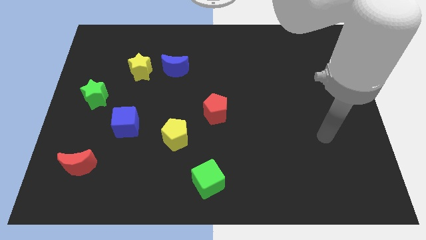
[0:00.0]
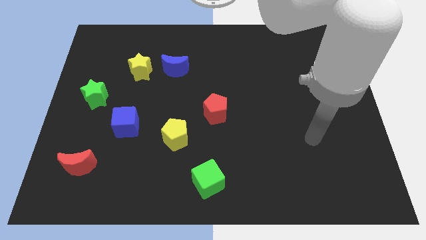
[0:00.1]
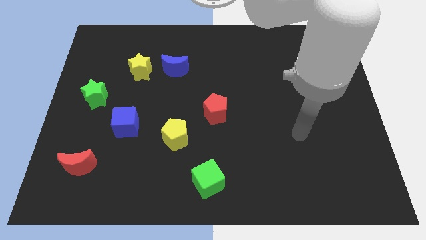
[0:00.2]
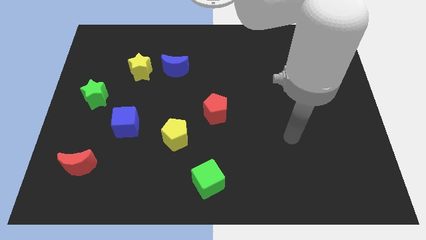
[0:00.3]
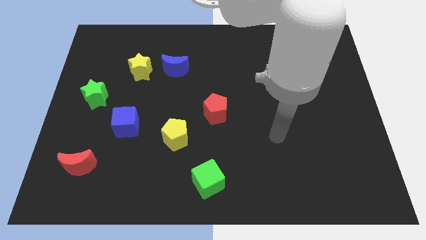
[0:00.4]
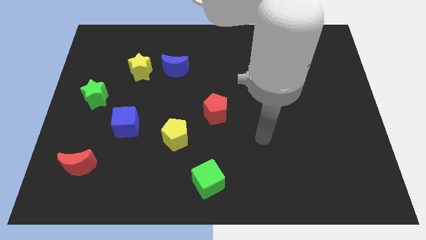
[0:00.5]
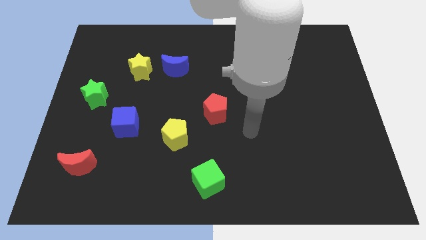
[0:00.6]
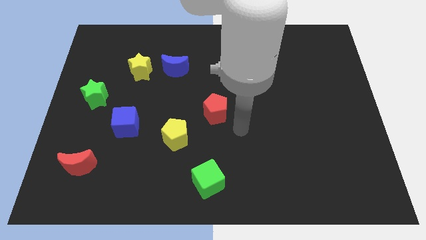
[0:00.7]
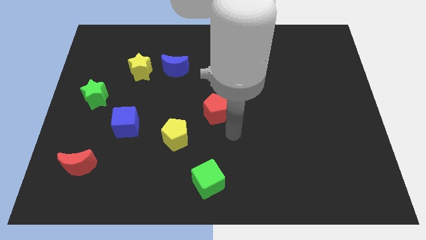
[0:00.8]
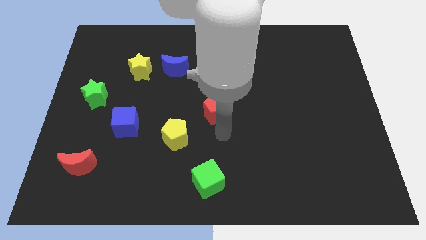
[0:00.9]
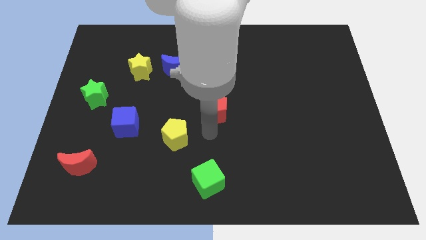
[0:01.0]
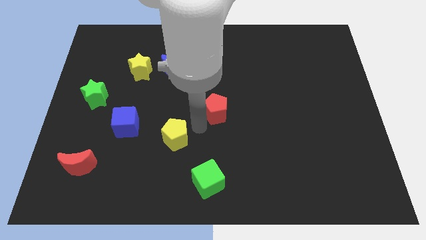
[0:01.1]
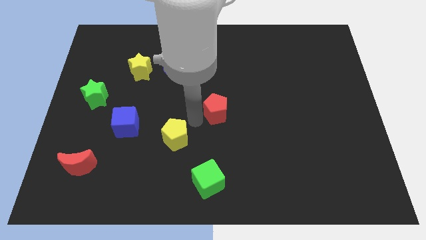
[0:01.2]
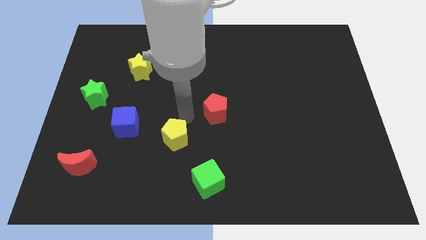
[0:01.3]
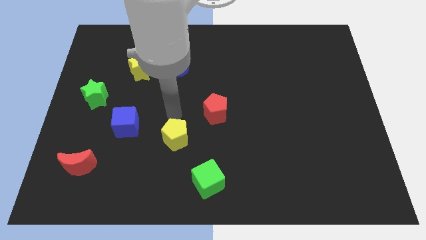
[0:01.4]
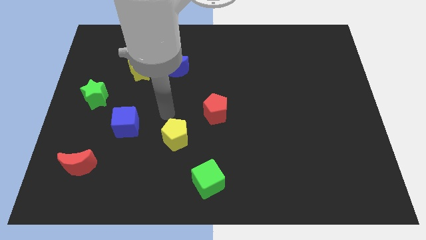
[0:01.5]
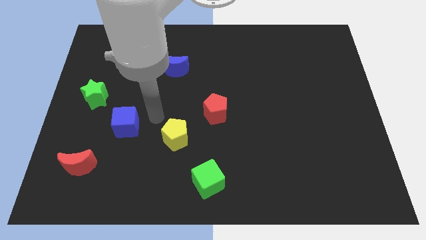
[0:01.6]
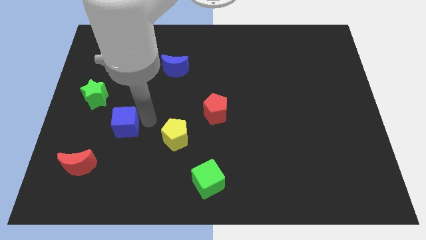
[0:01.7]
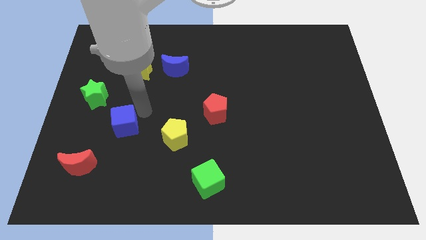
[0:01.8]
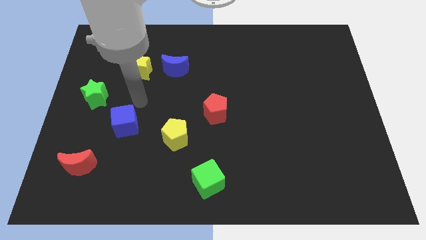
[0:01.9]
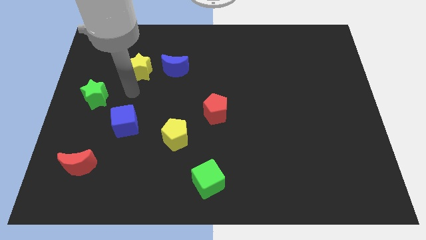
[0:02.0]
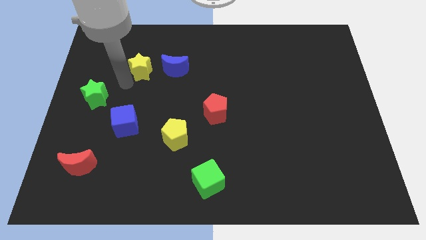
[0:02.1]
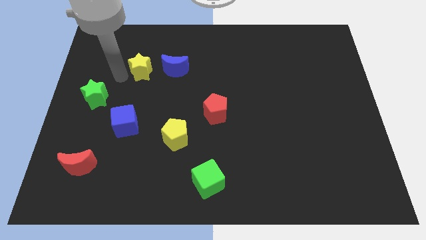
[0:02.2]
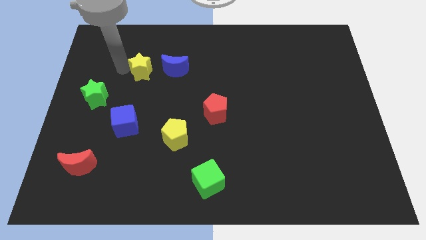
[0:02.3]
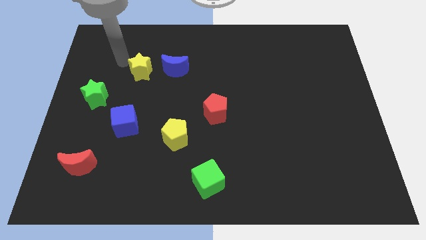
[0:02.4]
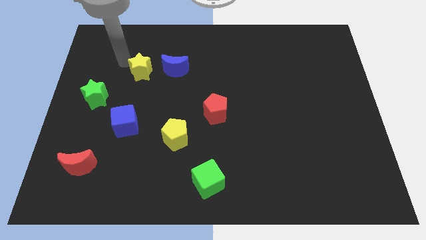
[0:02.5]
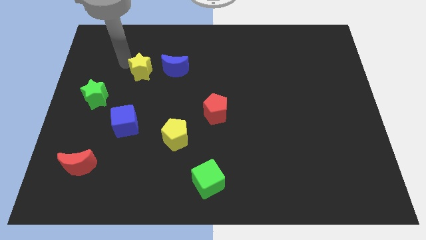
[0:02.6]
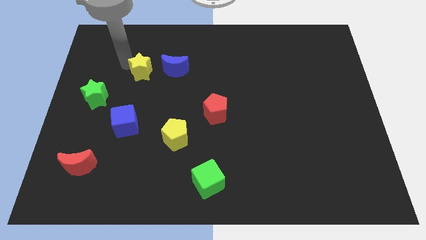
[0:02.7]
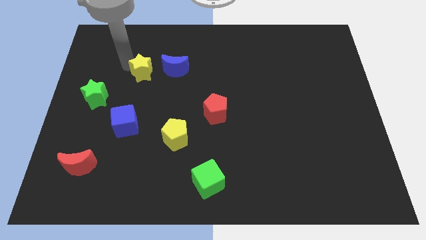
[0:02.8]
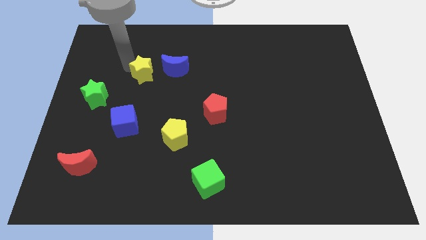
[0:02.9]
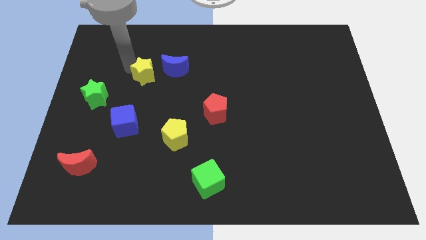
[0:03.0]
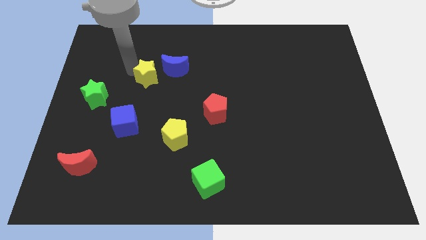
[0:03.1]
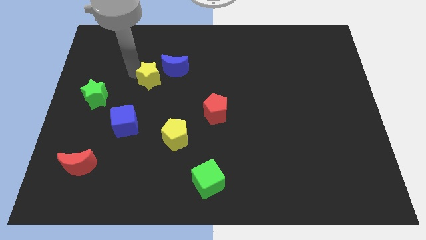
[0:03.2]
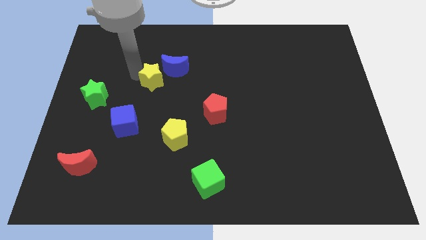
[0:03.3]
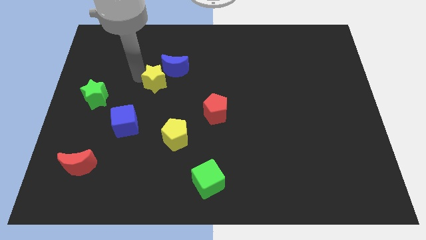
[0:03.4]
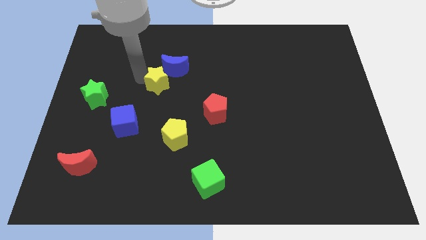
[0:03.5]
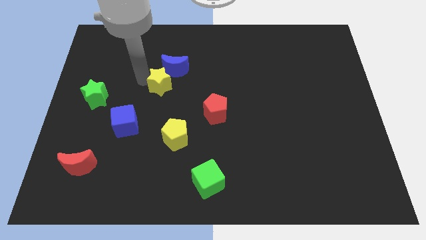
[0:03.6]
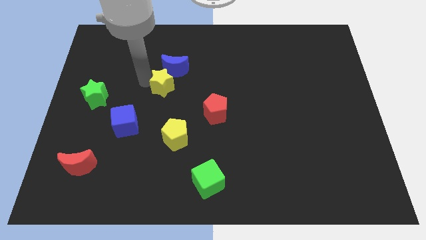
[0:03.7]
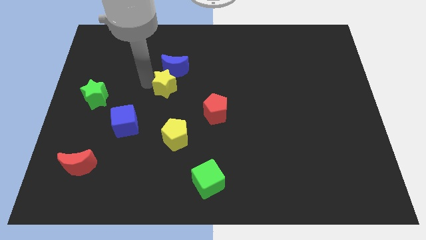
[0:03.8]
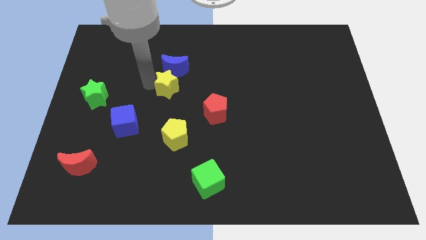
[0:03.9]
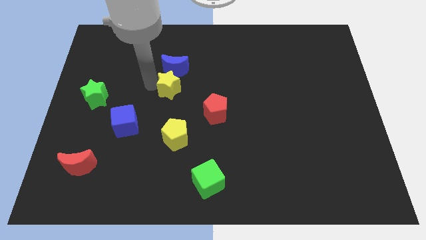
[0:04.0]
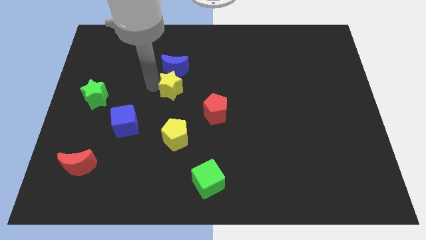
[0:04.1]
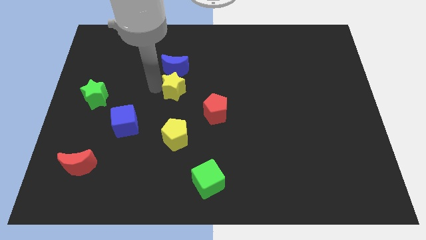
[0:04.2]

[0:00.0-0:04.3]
slide the yellow star a little to the right

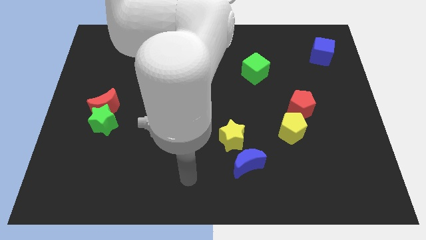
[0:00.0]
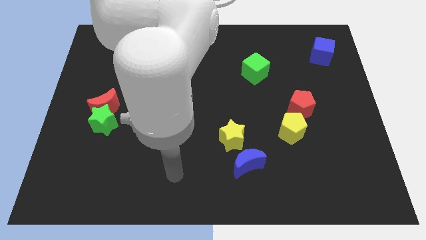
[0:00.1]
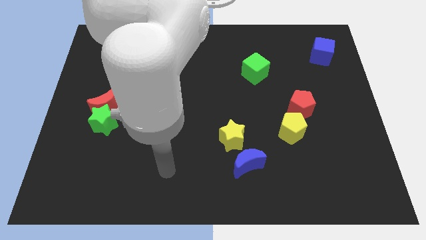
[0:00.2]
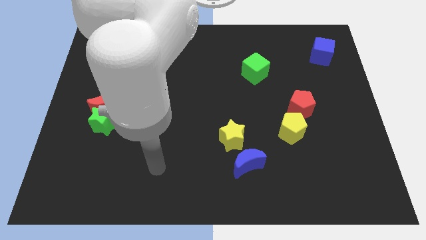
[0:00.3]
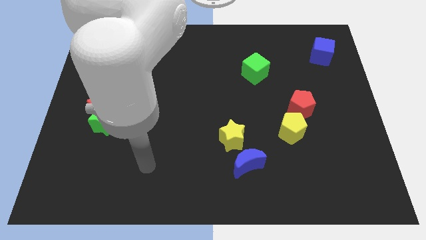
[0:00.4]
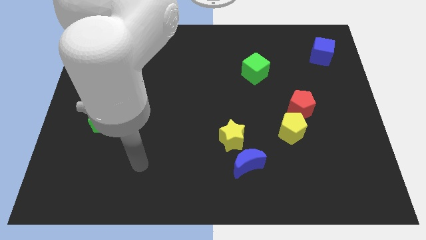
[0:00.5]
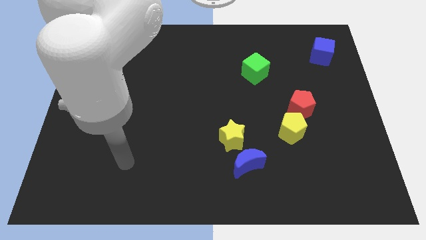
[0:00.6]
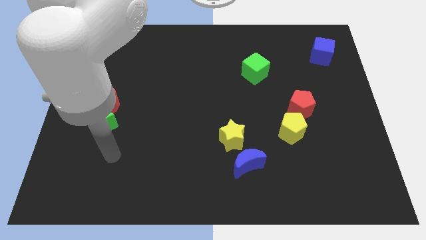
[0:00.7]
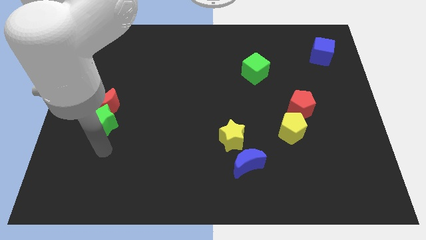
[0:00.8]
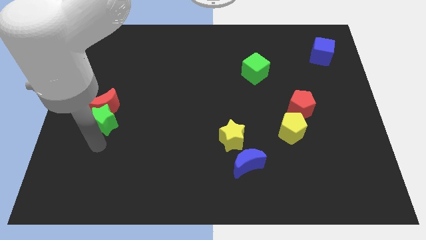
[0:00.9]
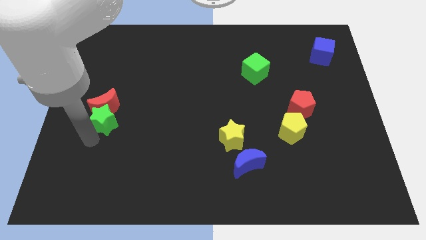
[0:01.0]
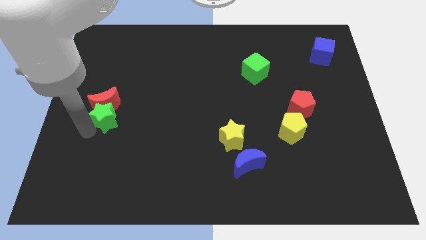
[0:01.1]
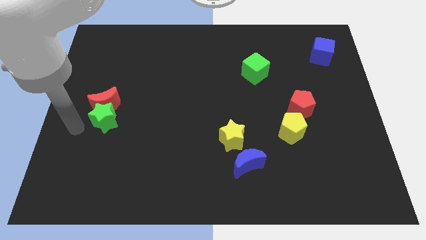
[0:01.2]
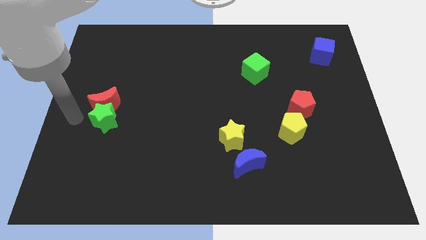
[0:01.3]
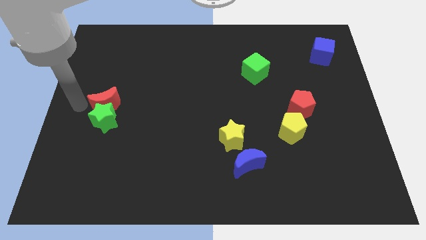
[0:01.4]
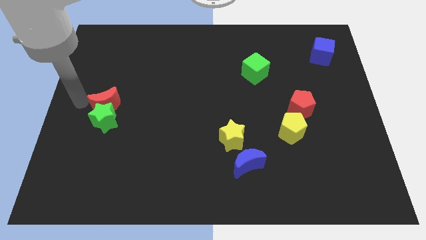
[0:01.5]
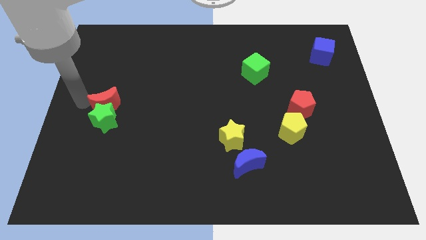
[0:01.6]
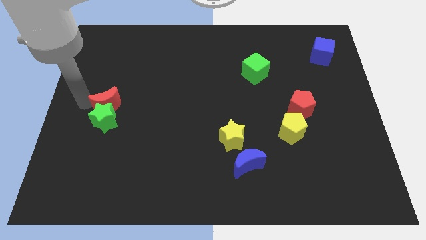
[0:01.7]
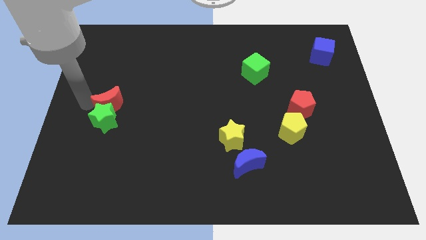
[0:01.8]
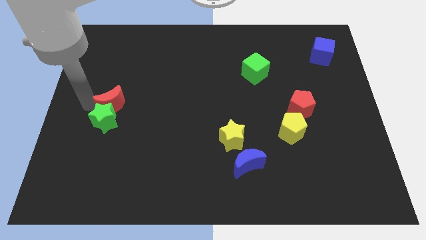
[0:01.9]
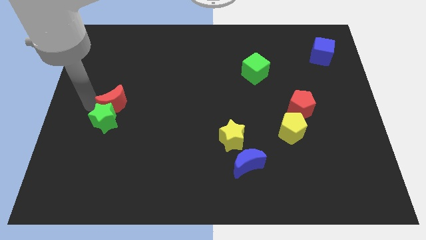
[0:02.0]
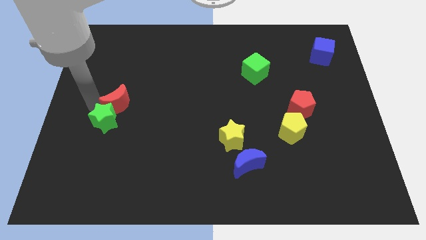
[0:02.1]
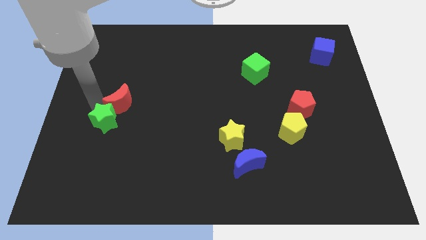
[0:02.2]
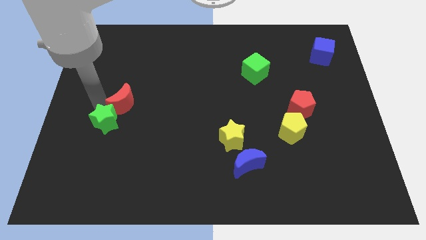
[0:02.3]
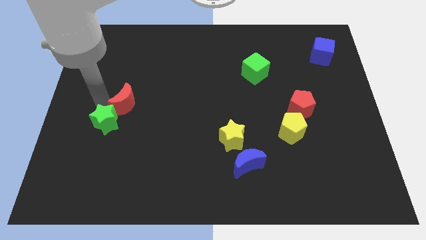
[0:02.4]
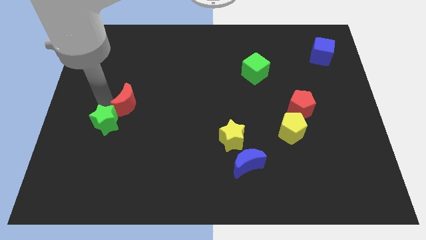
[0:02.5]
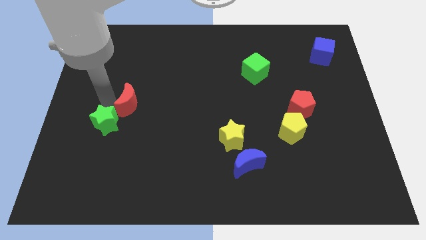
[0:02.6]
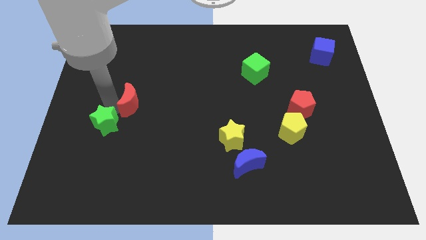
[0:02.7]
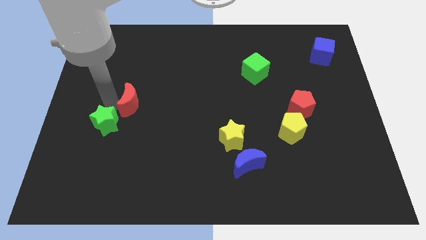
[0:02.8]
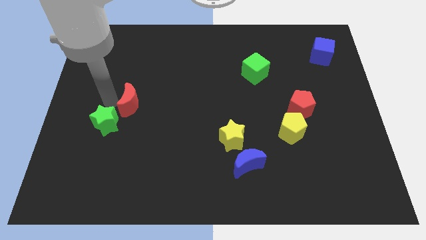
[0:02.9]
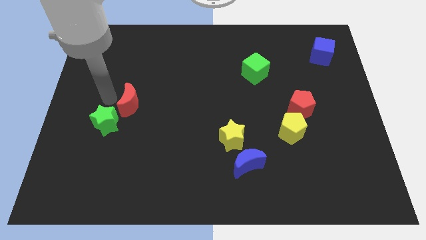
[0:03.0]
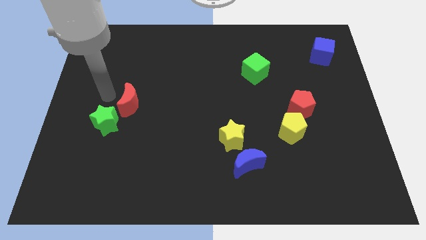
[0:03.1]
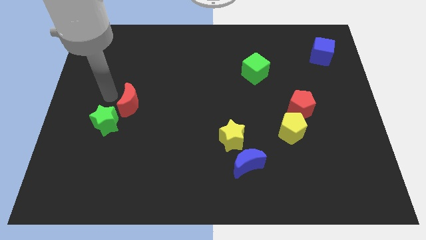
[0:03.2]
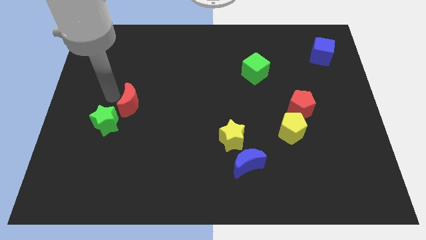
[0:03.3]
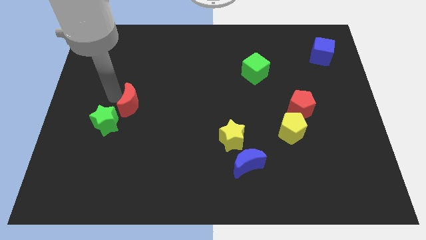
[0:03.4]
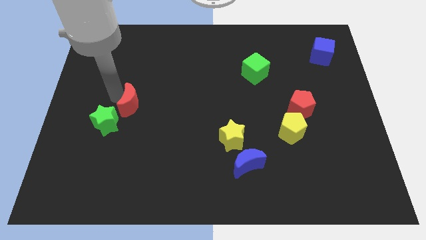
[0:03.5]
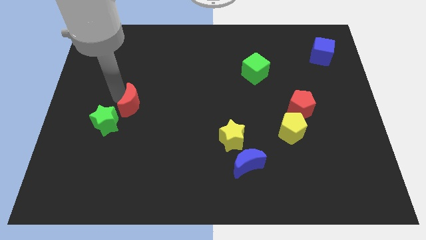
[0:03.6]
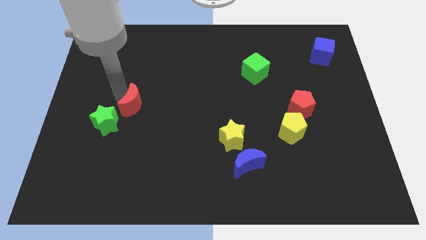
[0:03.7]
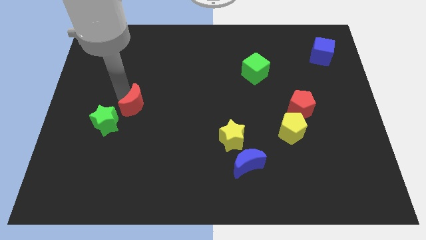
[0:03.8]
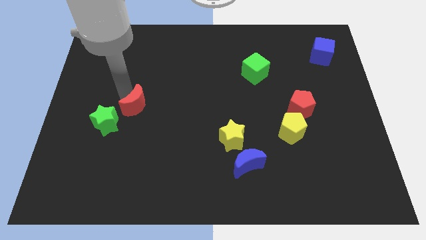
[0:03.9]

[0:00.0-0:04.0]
slightly move the red moon to the right
